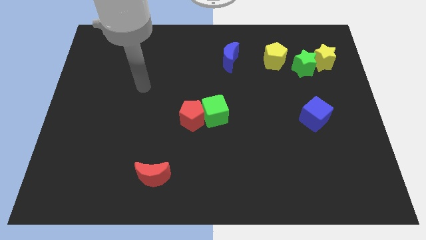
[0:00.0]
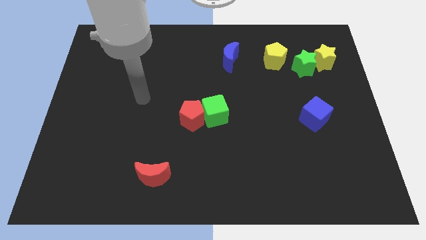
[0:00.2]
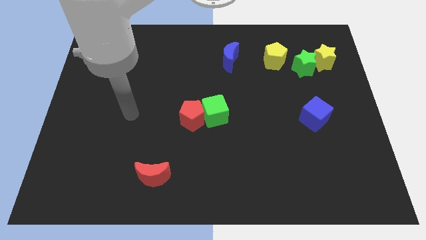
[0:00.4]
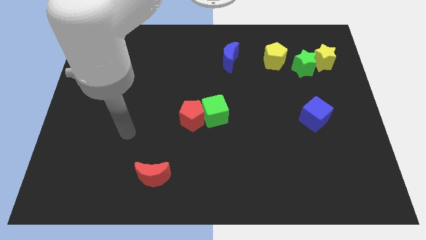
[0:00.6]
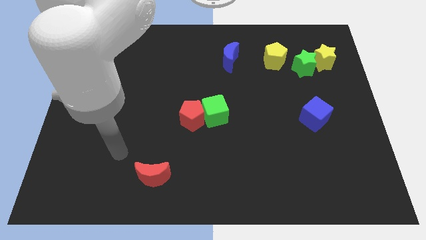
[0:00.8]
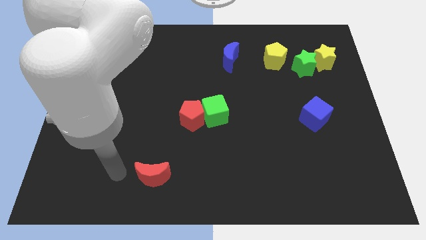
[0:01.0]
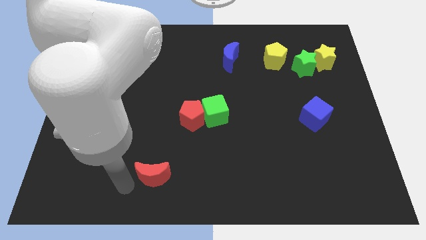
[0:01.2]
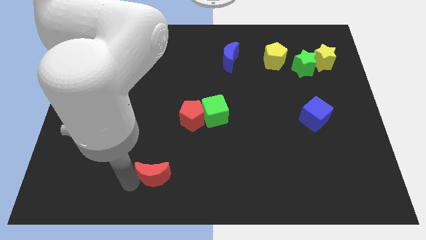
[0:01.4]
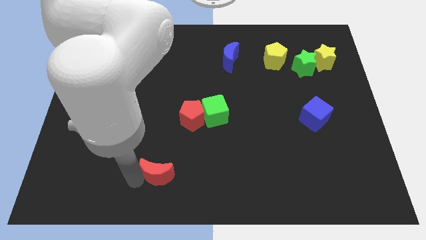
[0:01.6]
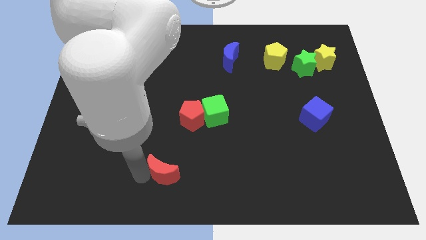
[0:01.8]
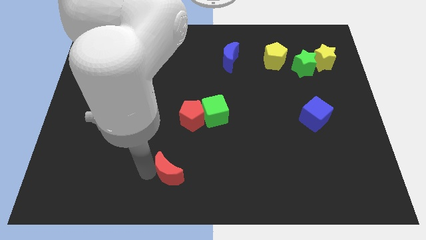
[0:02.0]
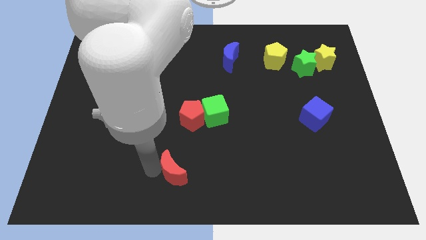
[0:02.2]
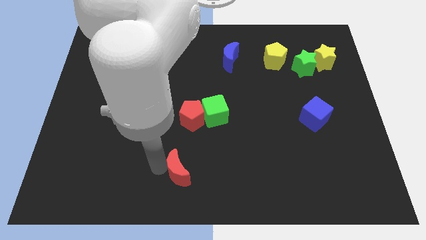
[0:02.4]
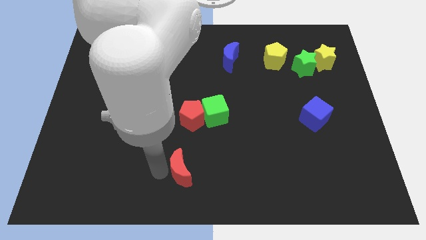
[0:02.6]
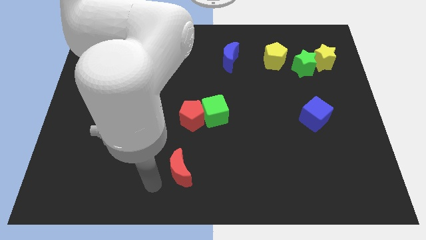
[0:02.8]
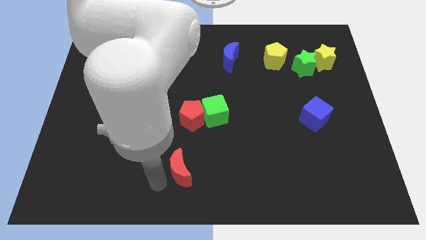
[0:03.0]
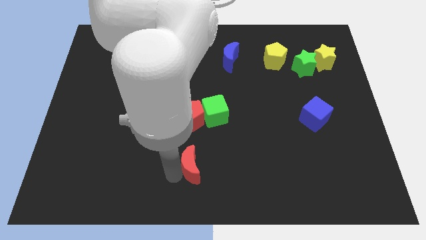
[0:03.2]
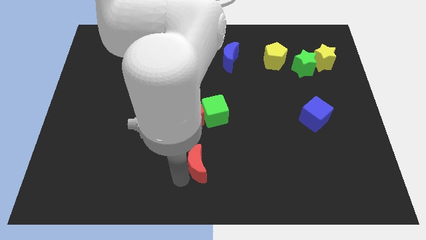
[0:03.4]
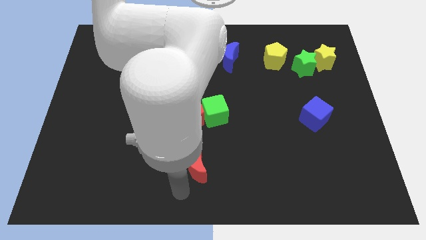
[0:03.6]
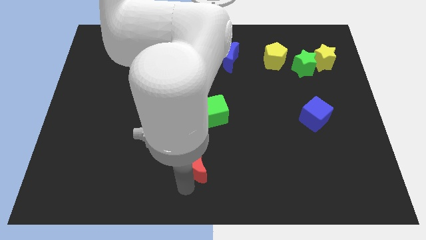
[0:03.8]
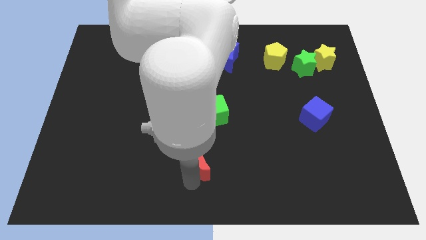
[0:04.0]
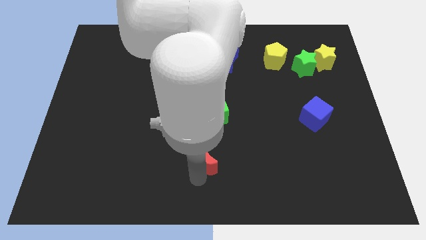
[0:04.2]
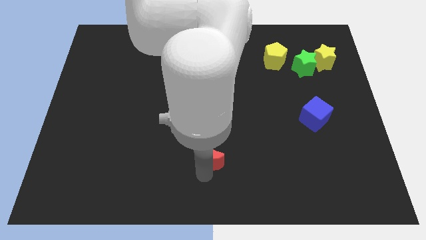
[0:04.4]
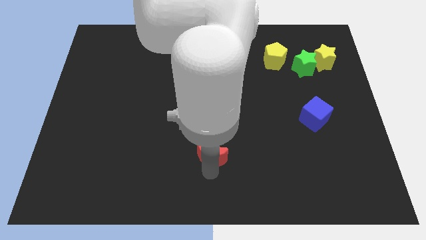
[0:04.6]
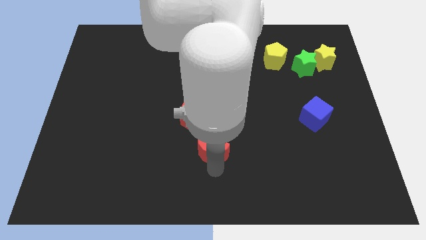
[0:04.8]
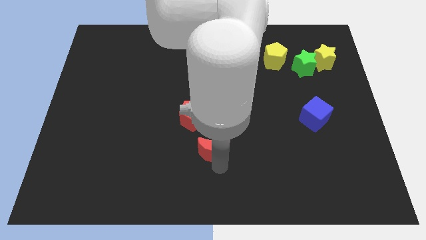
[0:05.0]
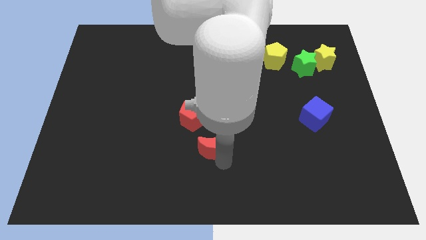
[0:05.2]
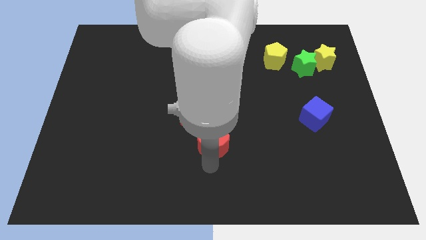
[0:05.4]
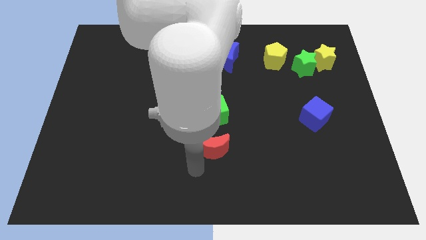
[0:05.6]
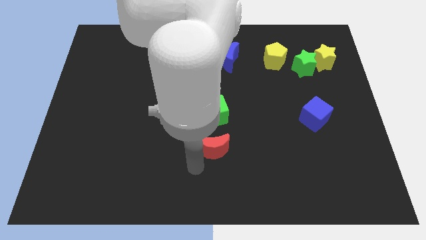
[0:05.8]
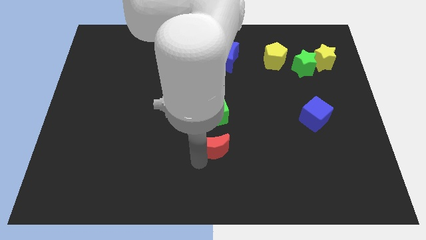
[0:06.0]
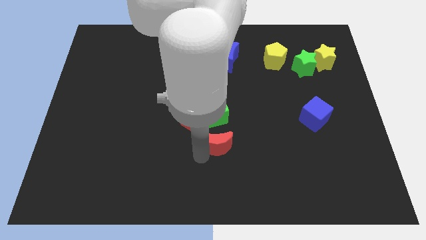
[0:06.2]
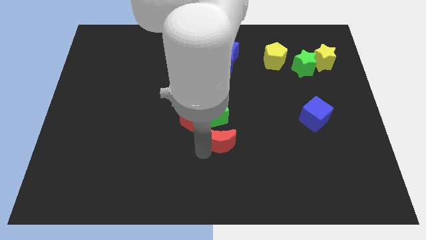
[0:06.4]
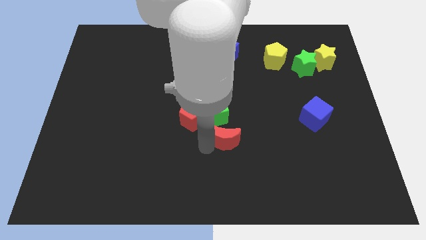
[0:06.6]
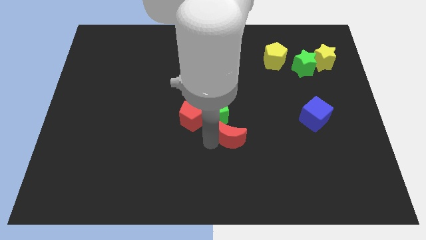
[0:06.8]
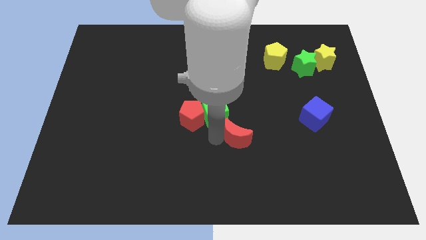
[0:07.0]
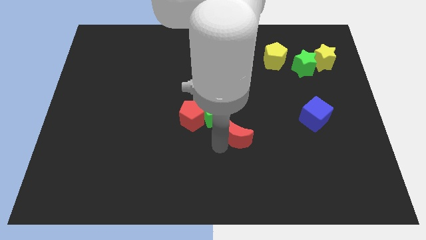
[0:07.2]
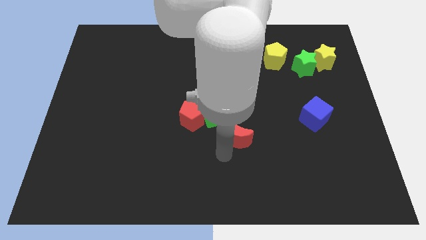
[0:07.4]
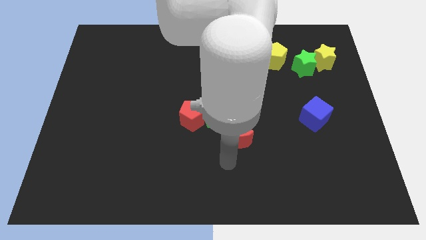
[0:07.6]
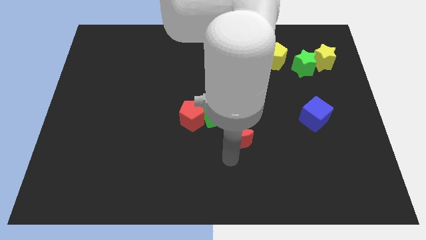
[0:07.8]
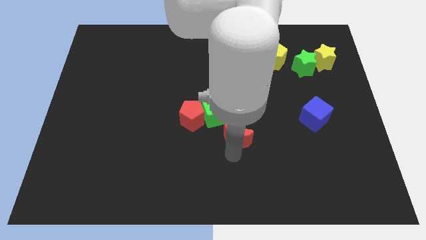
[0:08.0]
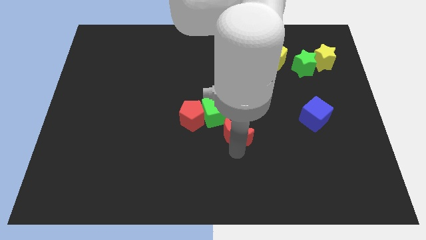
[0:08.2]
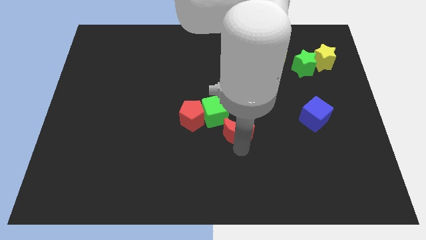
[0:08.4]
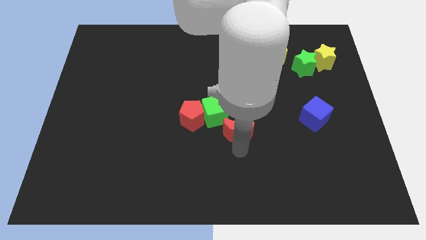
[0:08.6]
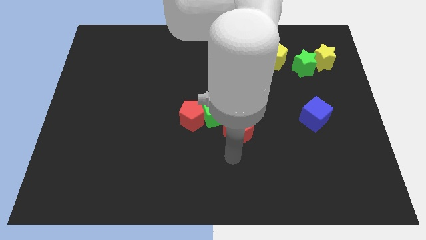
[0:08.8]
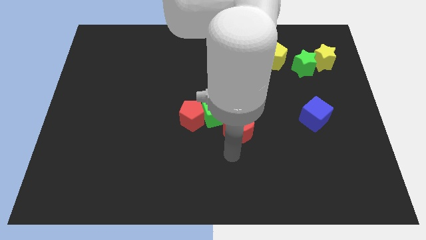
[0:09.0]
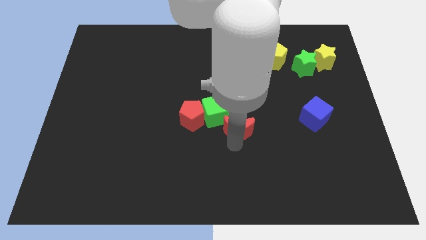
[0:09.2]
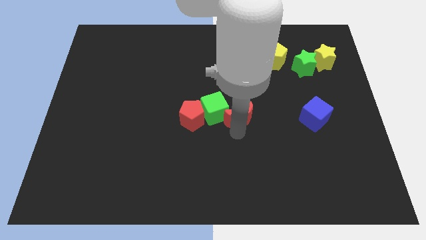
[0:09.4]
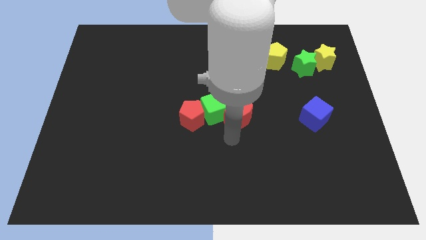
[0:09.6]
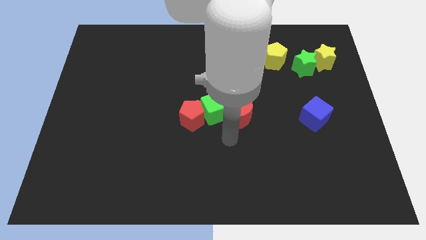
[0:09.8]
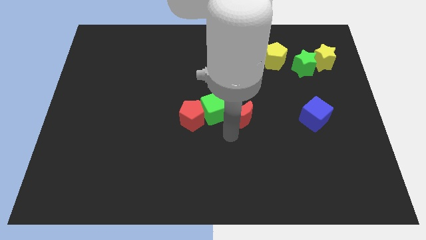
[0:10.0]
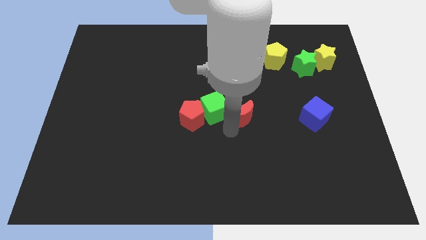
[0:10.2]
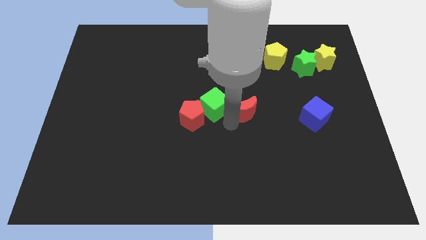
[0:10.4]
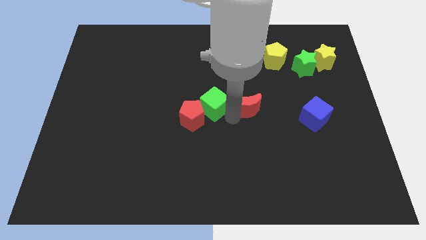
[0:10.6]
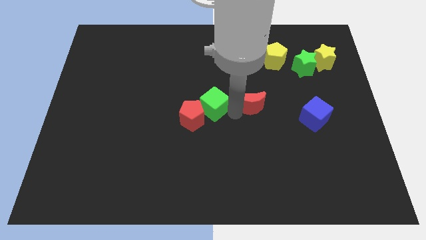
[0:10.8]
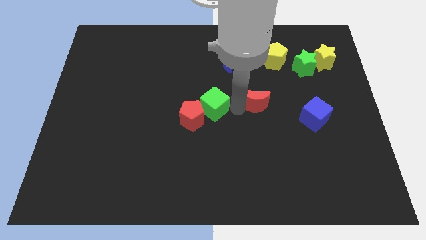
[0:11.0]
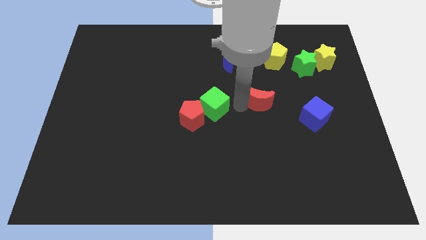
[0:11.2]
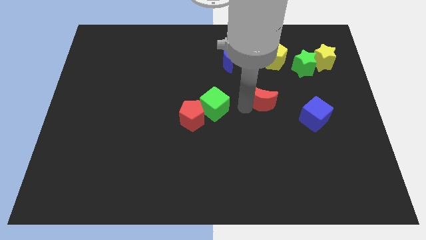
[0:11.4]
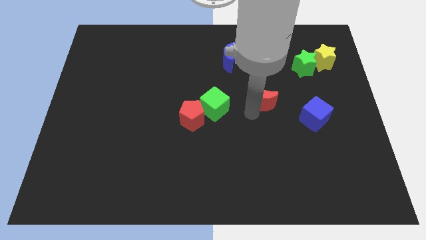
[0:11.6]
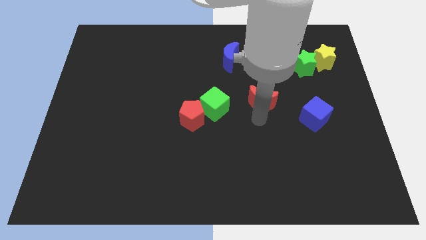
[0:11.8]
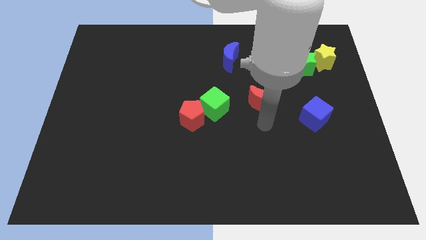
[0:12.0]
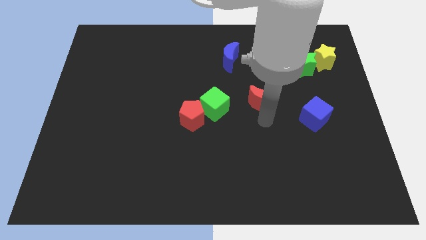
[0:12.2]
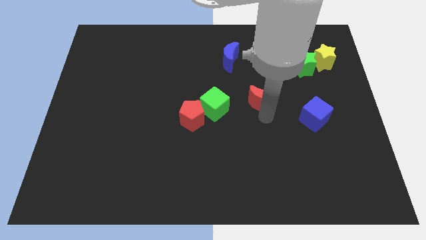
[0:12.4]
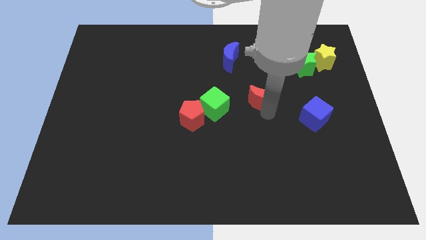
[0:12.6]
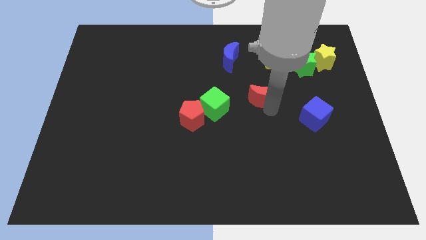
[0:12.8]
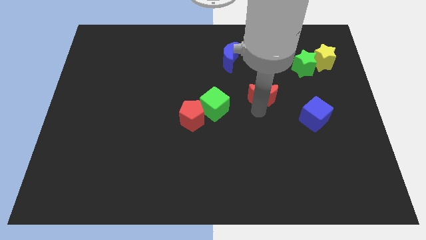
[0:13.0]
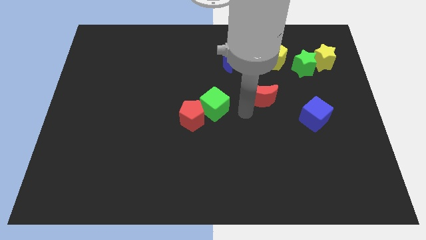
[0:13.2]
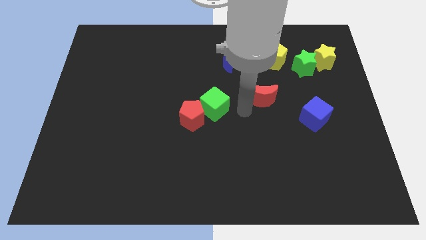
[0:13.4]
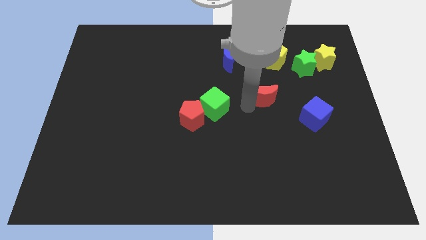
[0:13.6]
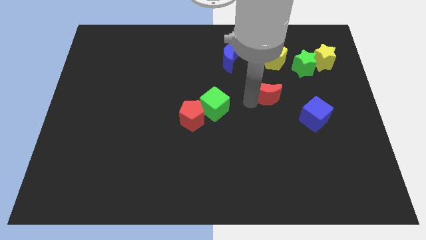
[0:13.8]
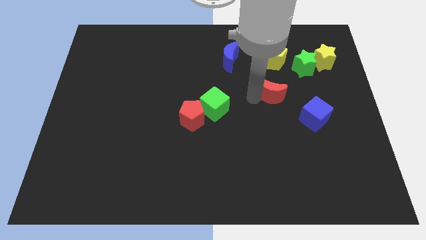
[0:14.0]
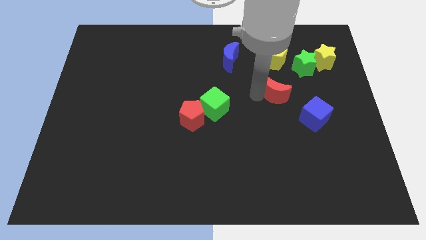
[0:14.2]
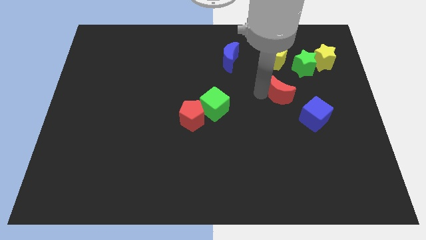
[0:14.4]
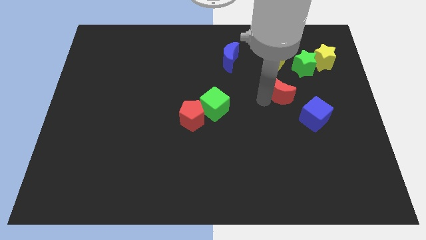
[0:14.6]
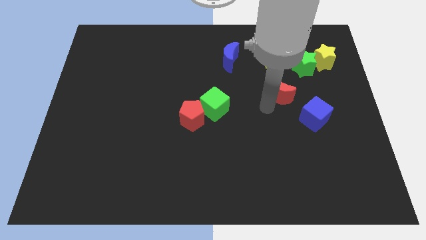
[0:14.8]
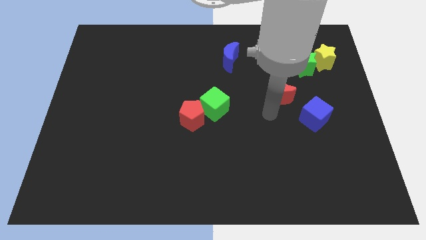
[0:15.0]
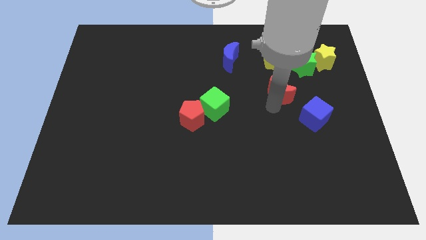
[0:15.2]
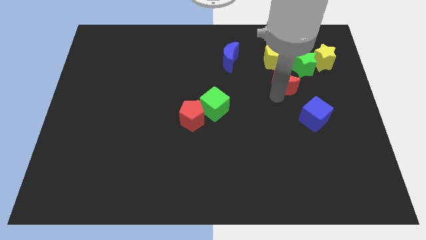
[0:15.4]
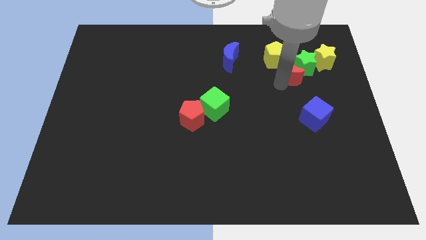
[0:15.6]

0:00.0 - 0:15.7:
push the red moon close to the green star

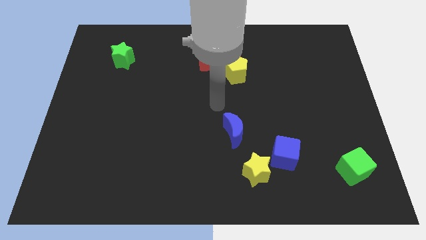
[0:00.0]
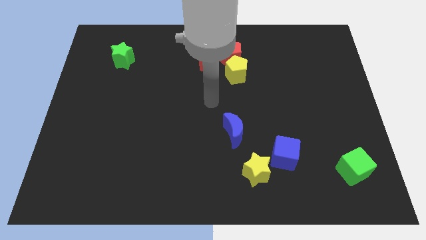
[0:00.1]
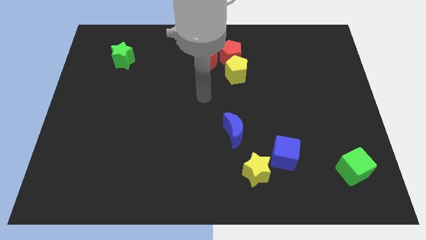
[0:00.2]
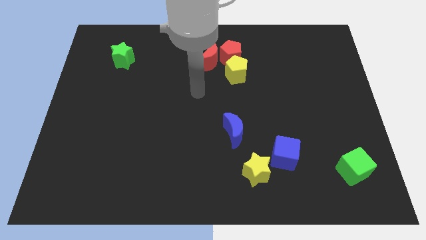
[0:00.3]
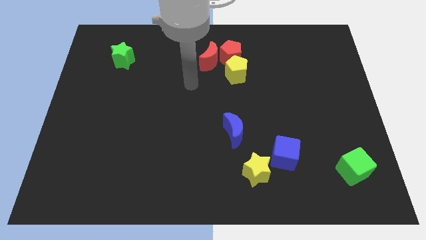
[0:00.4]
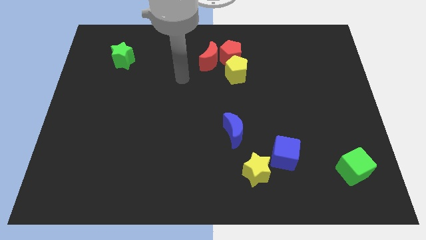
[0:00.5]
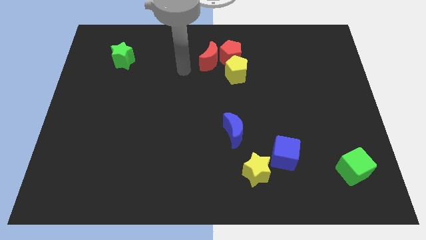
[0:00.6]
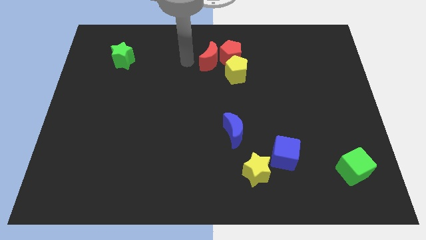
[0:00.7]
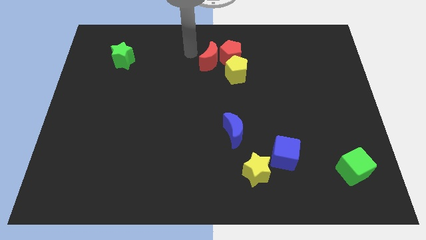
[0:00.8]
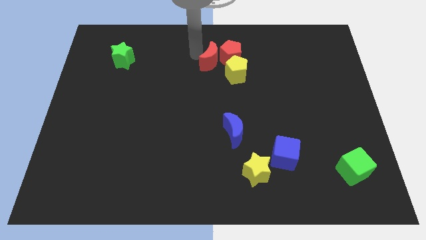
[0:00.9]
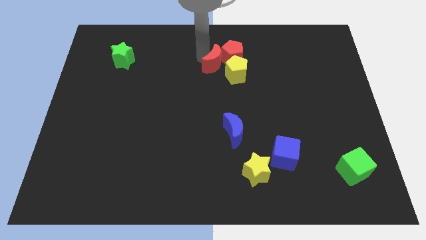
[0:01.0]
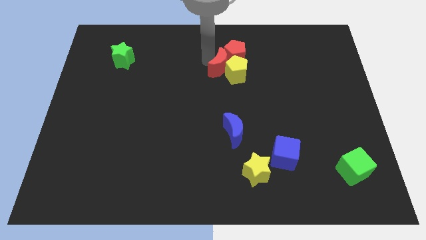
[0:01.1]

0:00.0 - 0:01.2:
put the red moon next to the yellow pentagon
